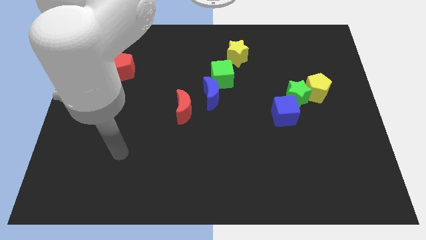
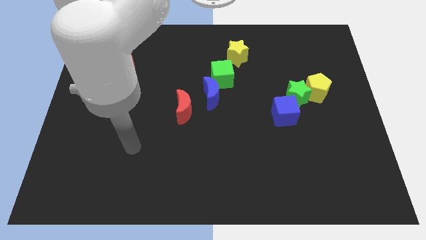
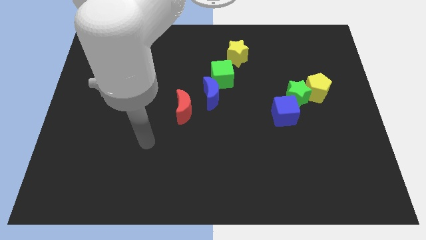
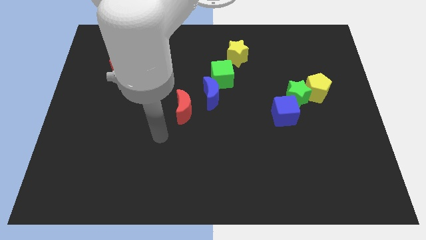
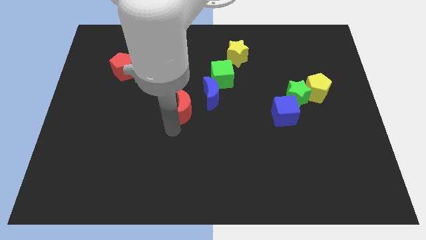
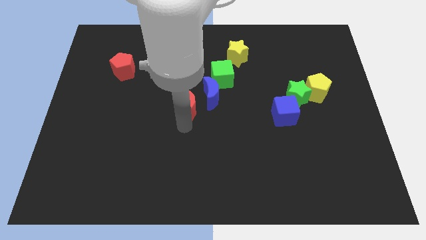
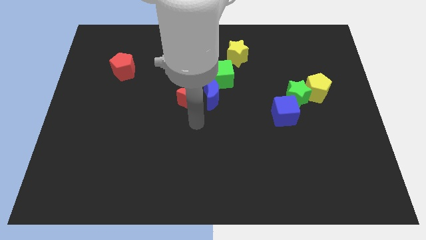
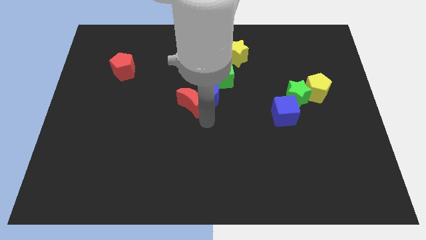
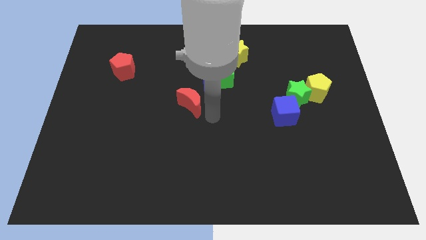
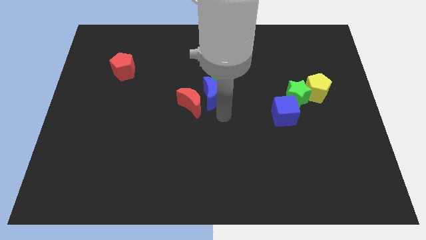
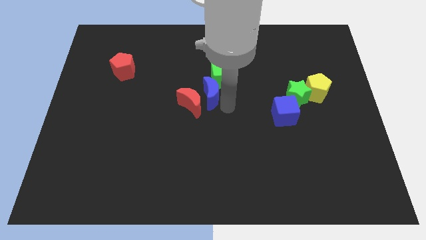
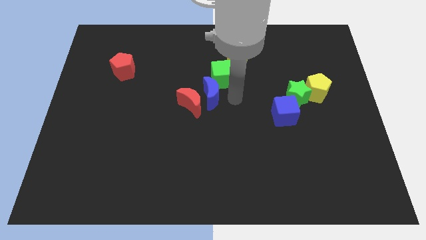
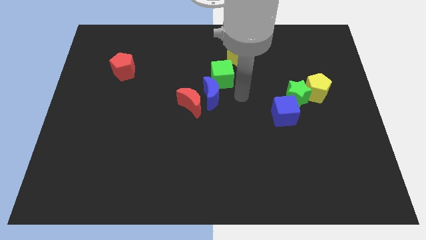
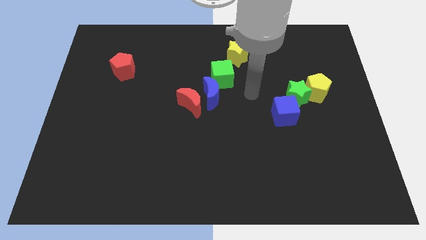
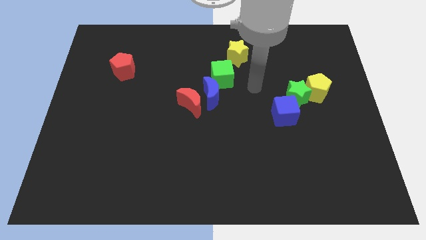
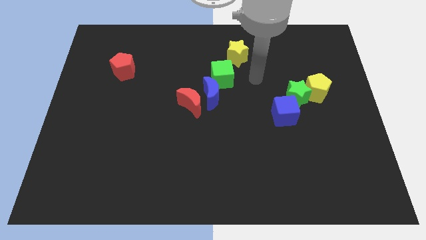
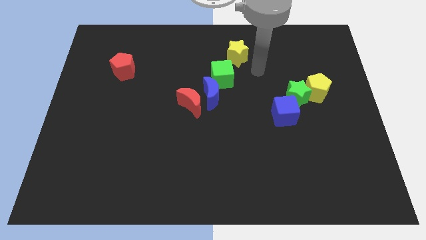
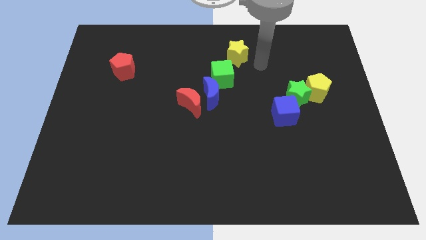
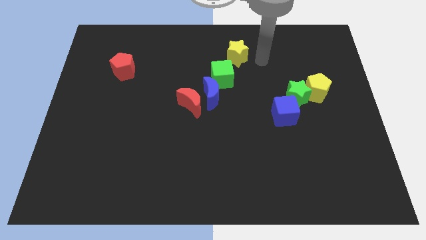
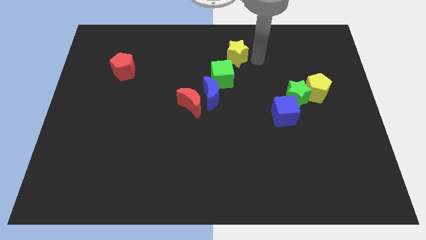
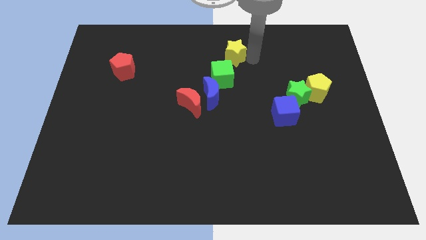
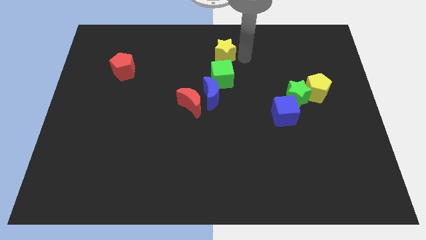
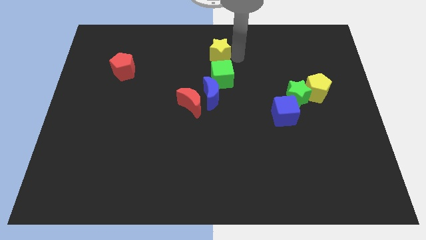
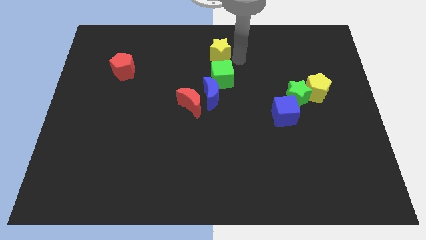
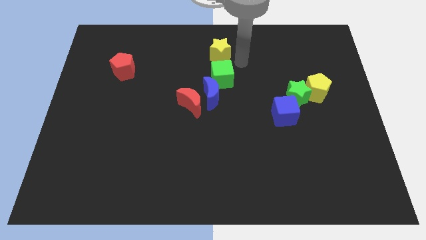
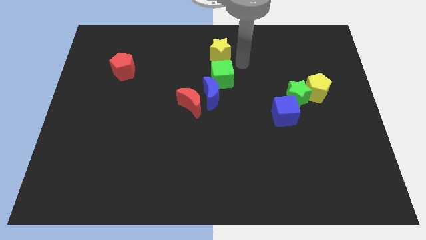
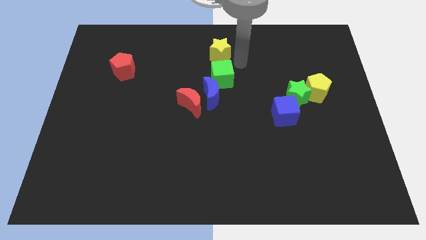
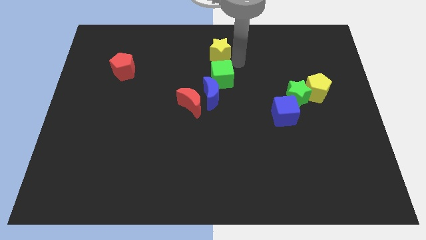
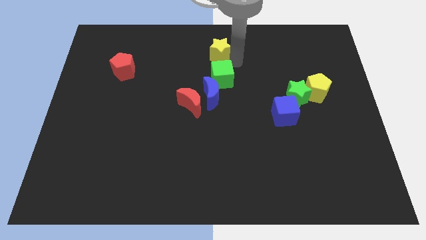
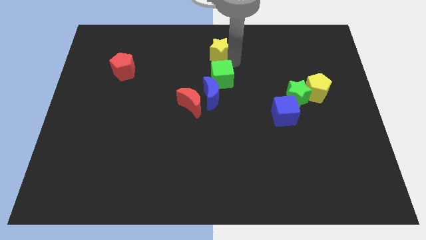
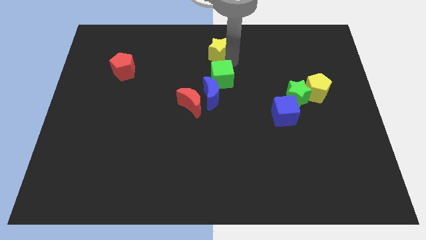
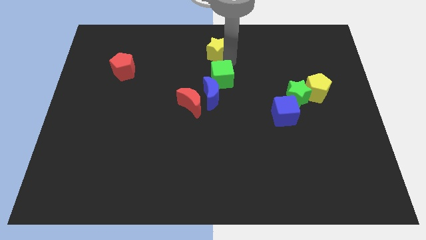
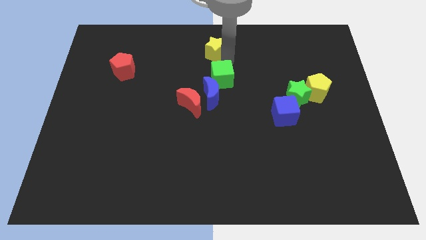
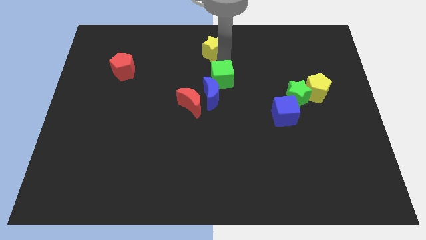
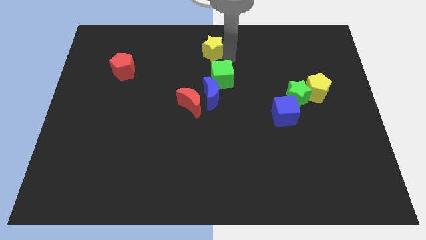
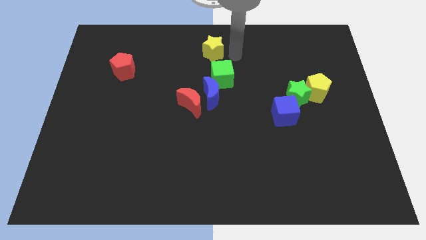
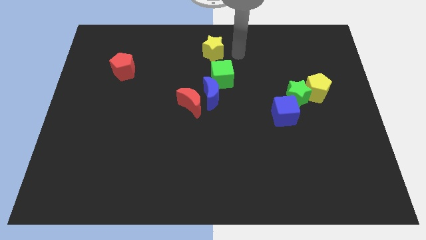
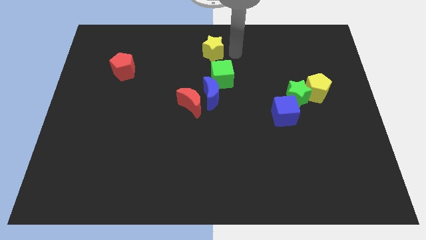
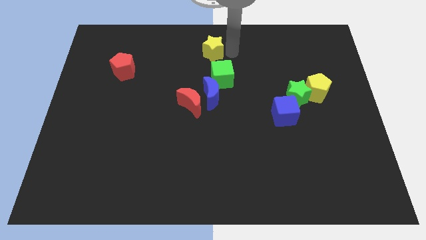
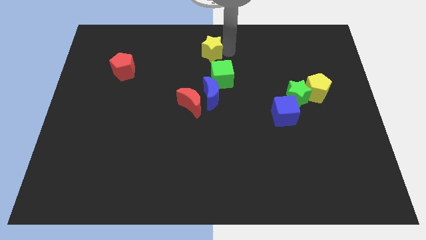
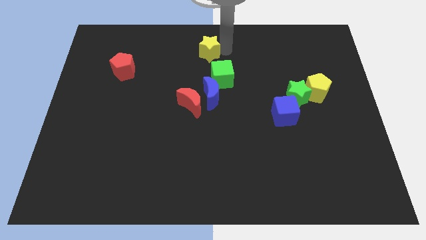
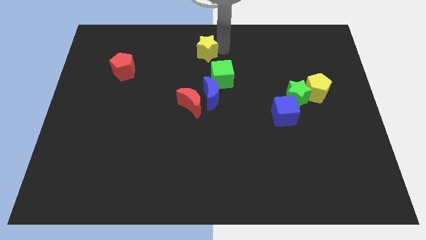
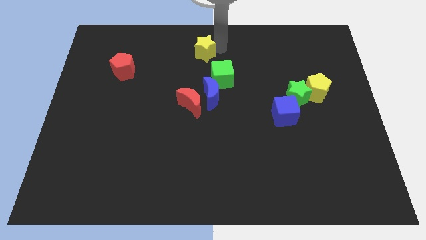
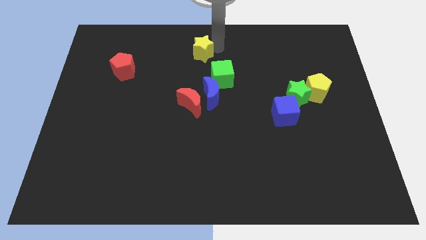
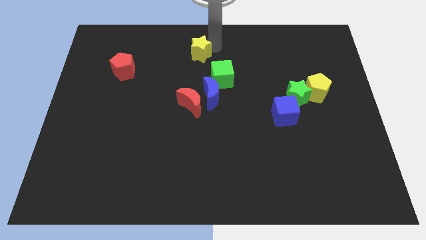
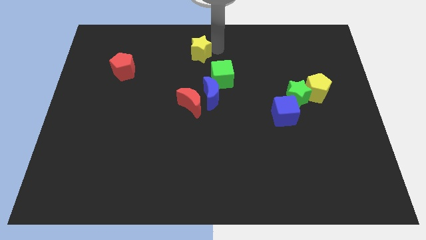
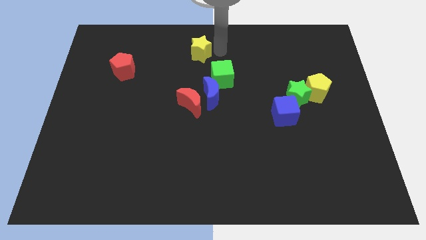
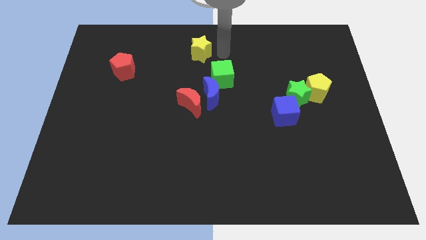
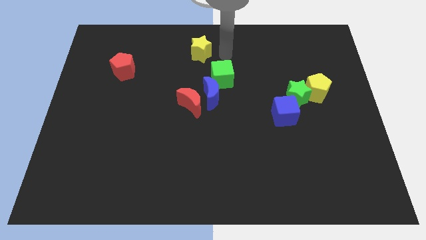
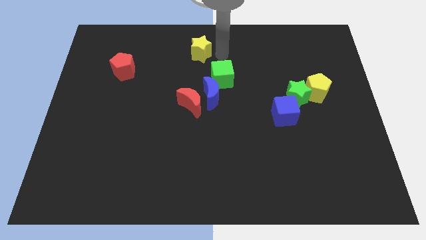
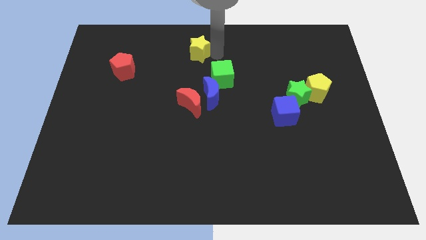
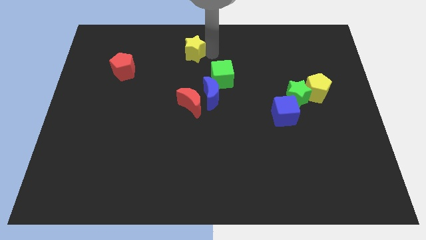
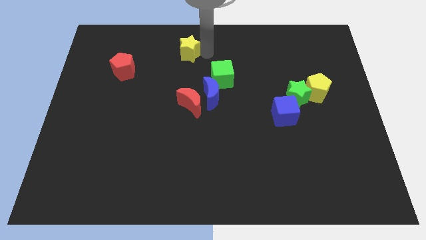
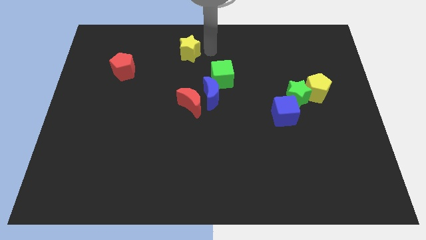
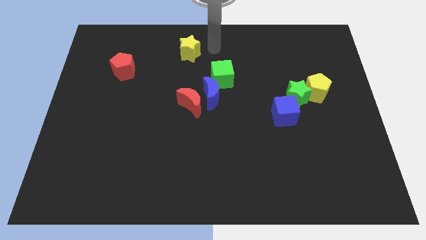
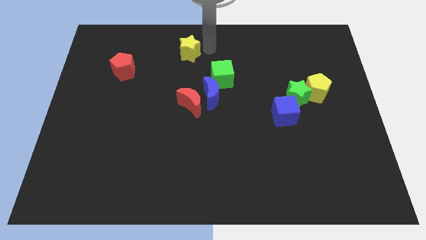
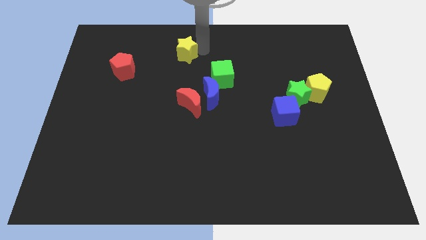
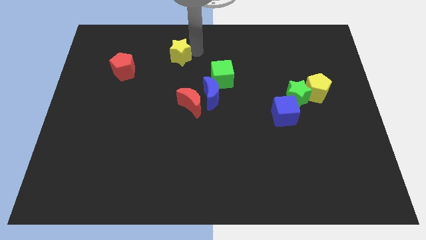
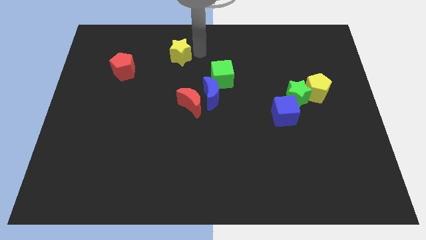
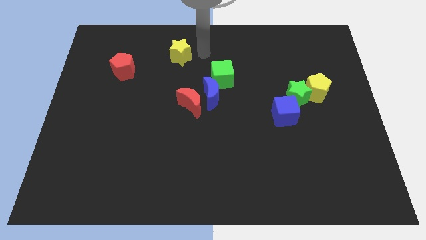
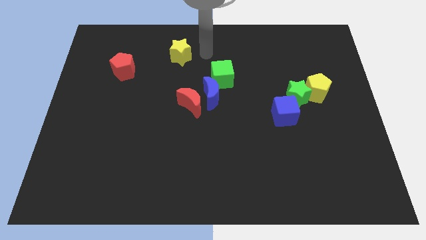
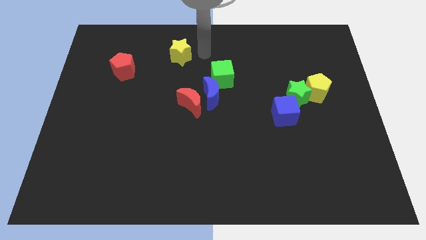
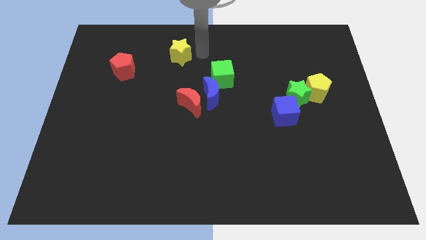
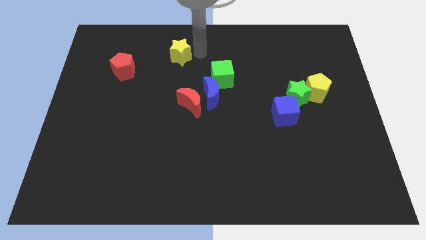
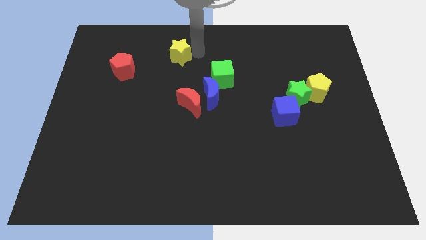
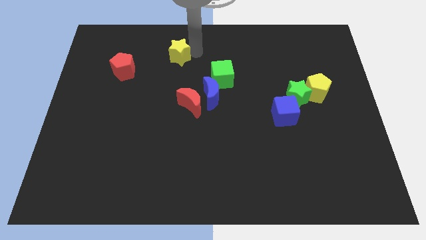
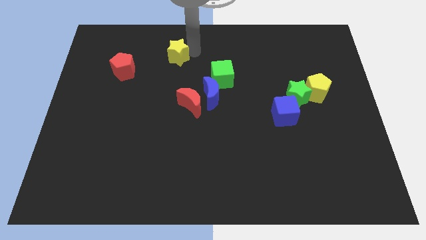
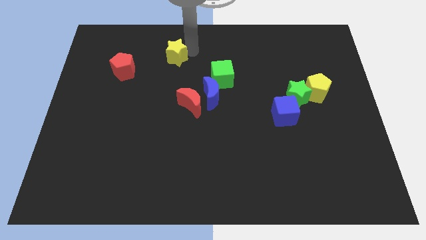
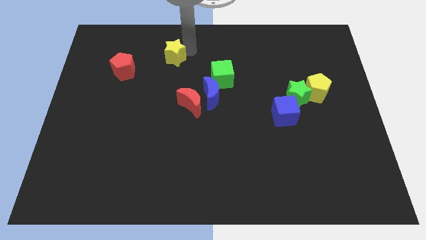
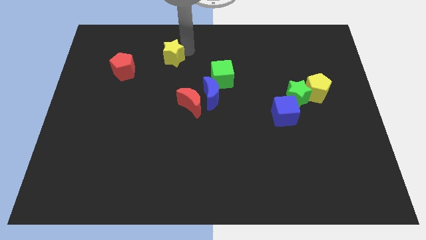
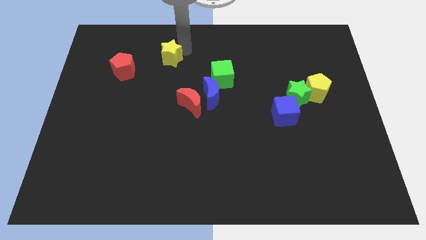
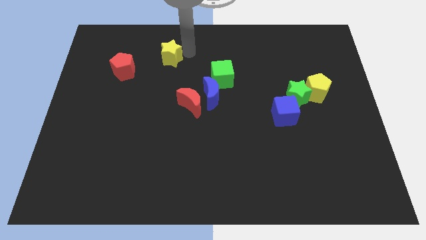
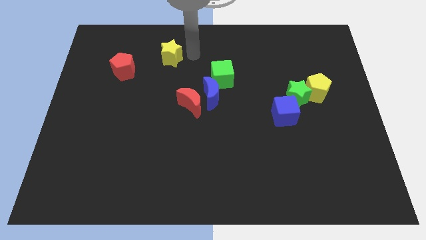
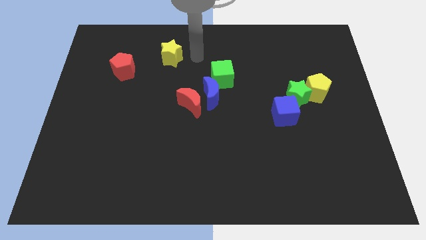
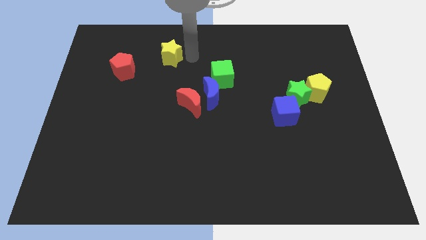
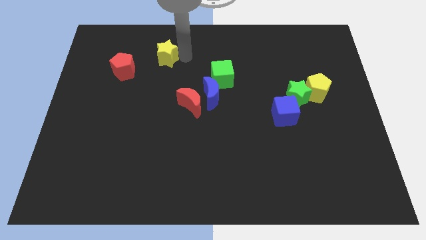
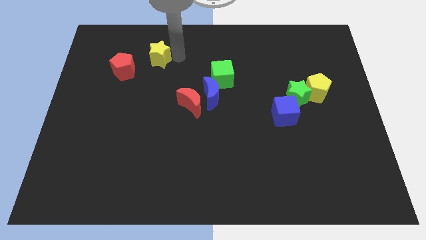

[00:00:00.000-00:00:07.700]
slide the yellow star to the top right of the red pentagon

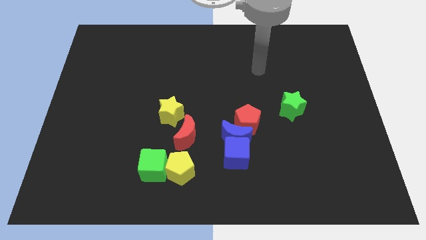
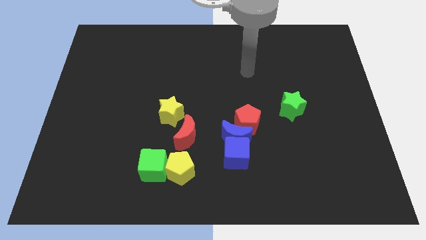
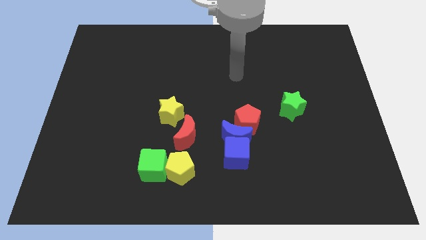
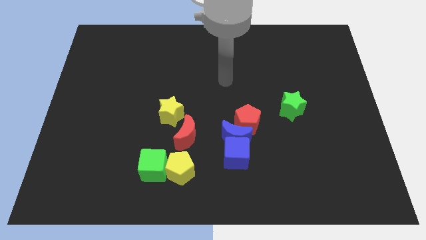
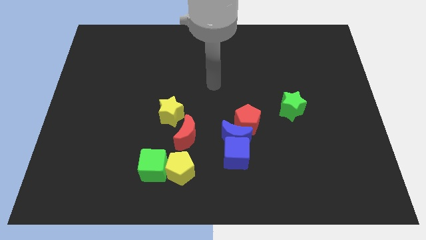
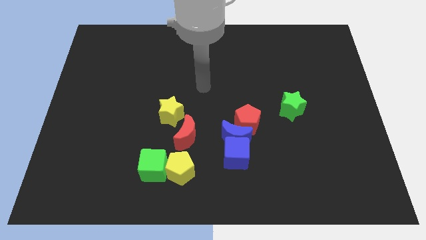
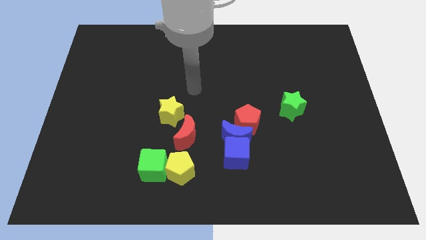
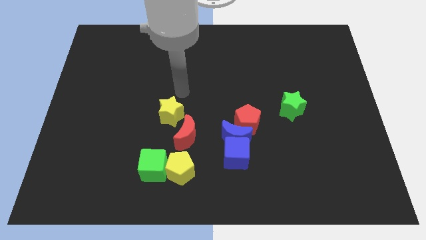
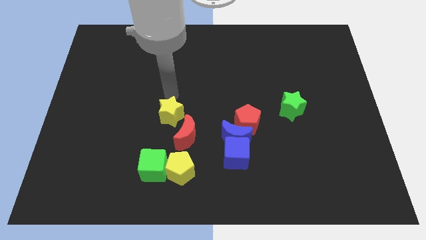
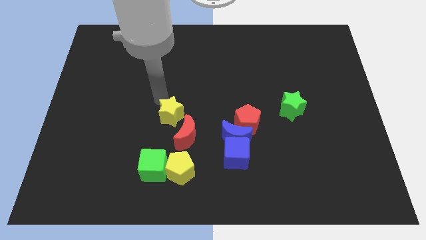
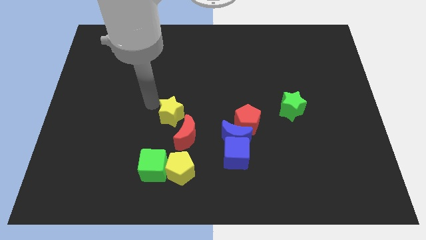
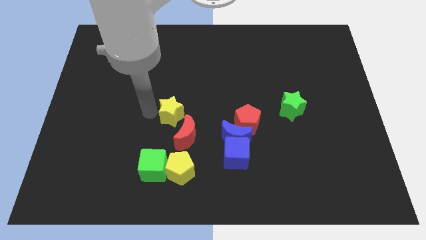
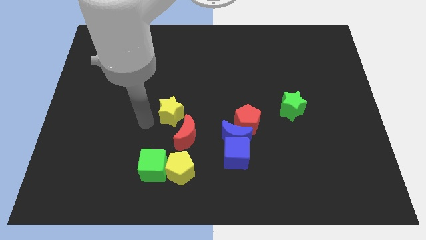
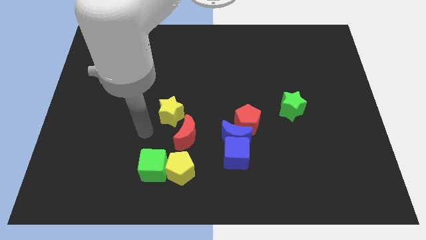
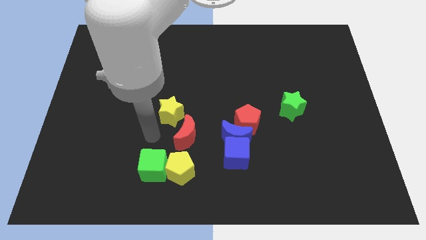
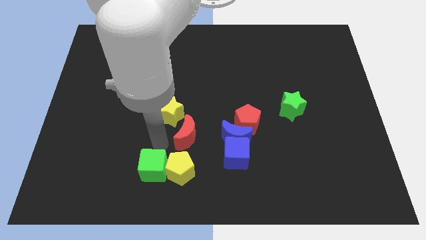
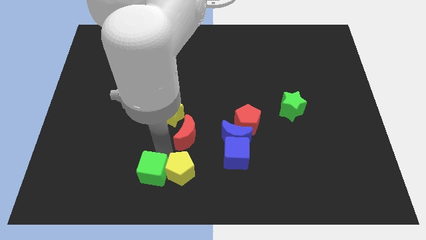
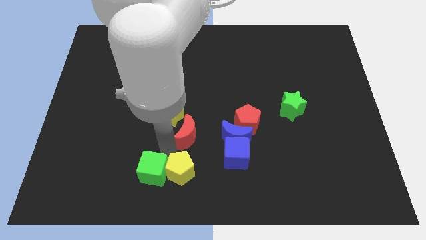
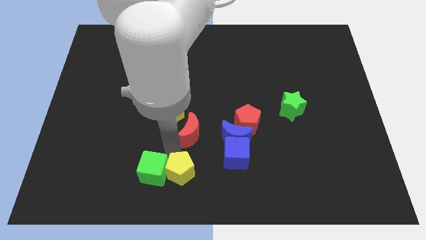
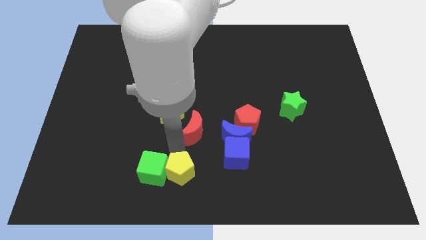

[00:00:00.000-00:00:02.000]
slide the red moon to the right side of the yellow star
